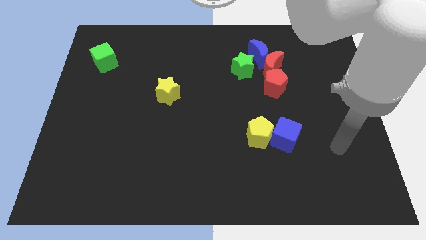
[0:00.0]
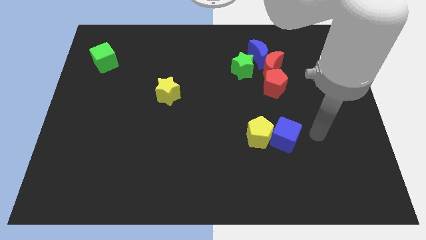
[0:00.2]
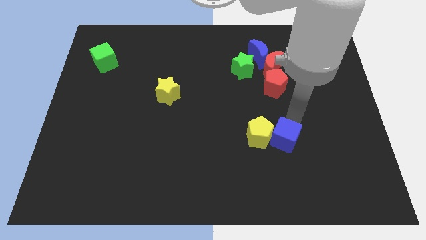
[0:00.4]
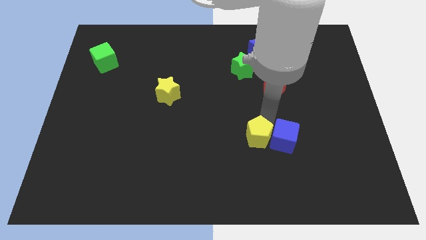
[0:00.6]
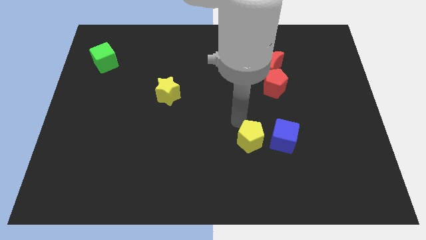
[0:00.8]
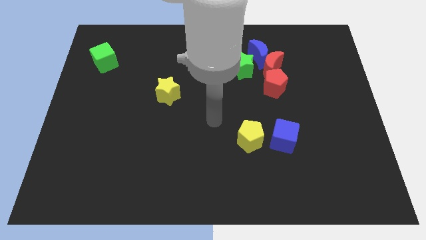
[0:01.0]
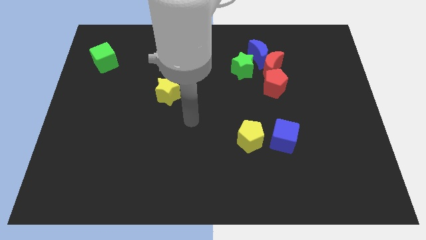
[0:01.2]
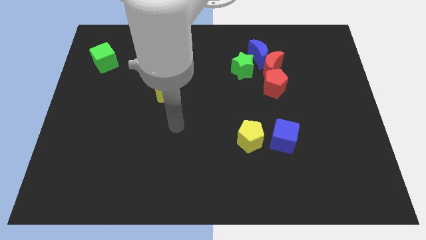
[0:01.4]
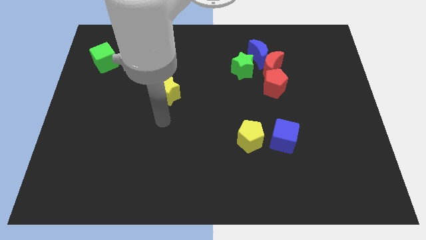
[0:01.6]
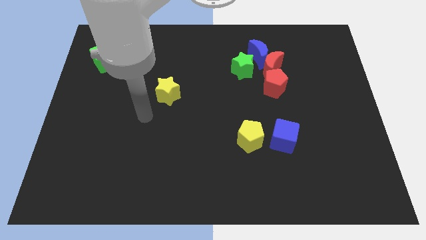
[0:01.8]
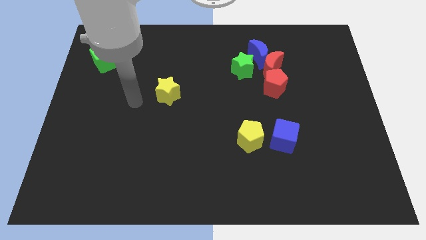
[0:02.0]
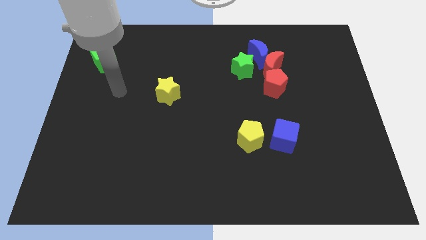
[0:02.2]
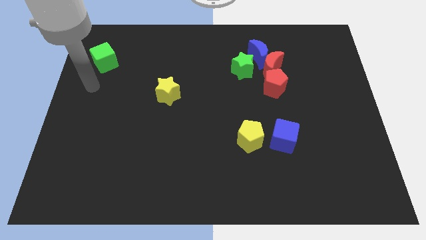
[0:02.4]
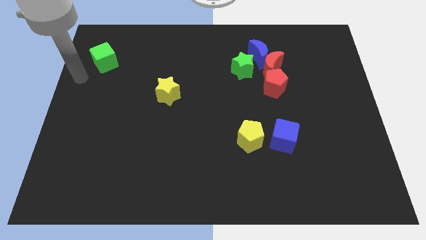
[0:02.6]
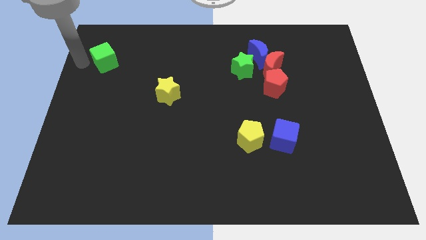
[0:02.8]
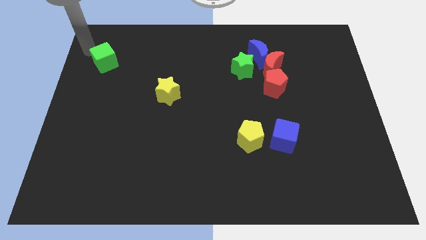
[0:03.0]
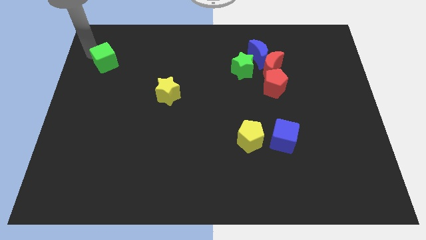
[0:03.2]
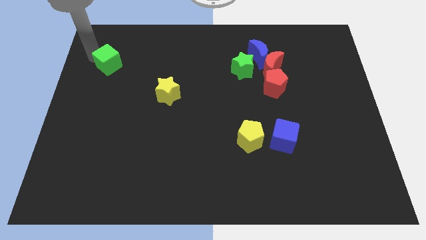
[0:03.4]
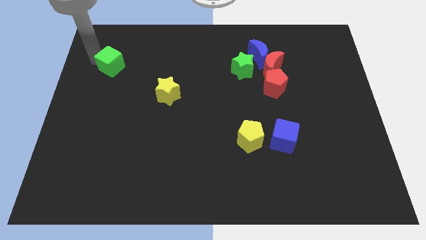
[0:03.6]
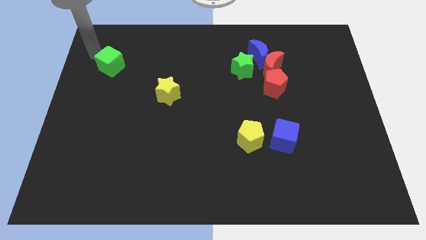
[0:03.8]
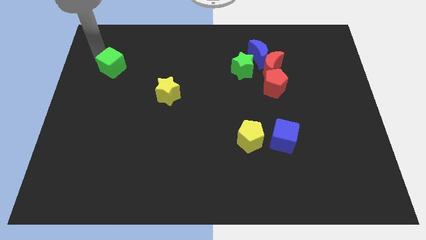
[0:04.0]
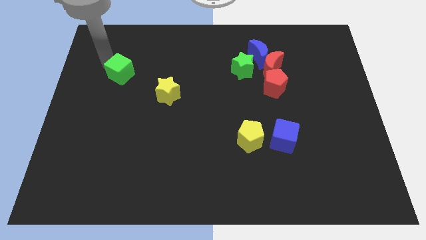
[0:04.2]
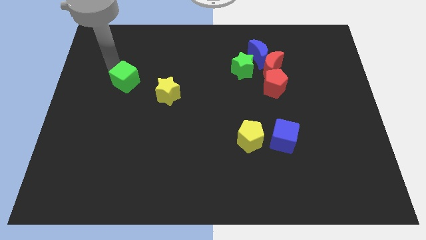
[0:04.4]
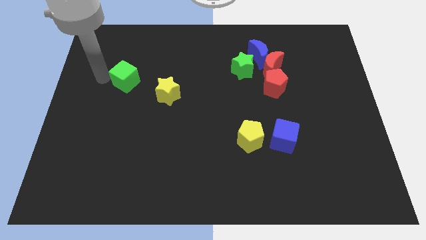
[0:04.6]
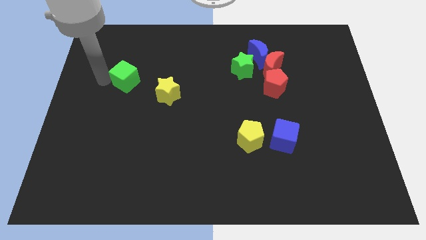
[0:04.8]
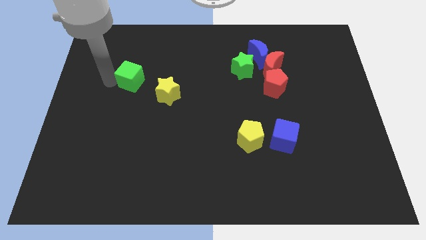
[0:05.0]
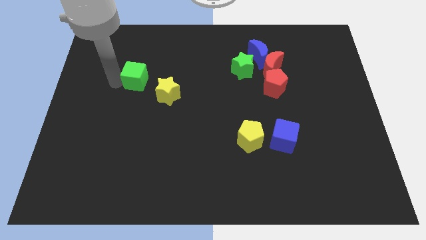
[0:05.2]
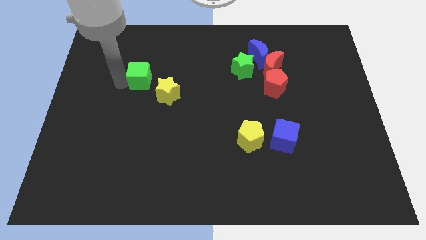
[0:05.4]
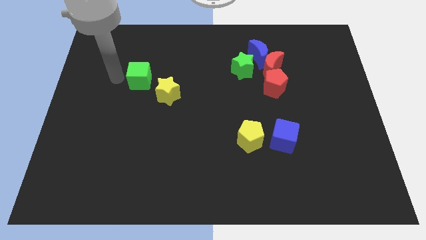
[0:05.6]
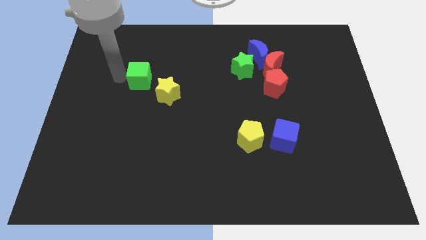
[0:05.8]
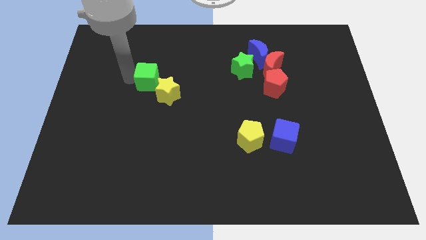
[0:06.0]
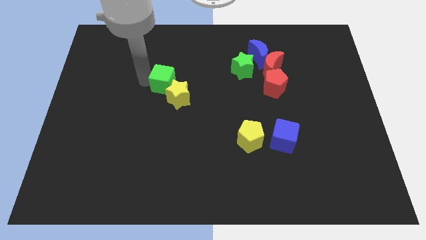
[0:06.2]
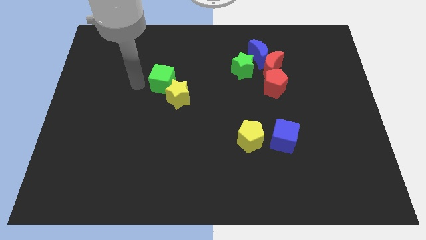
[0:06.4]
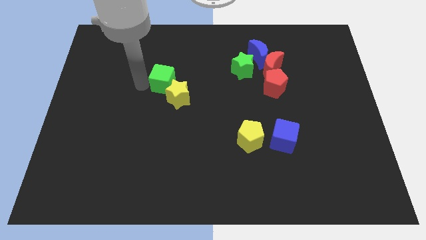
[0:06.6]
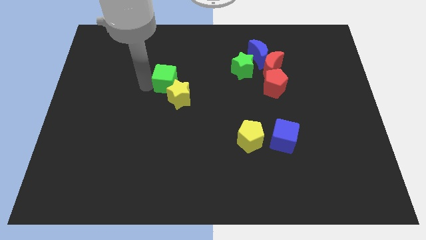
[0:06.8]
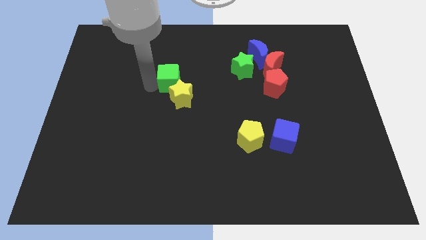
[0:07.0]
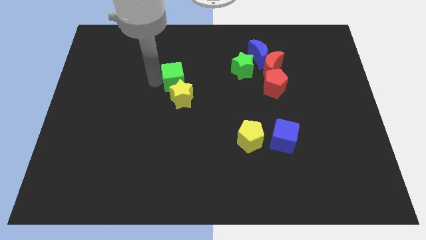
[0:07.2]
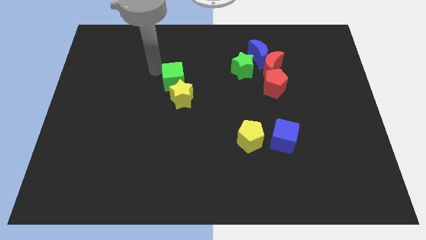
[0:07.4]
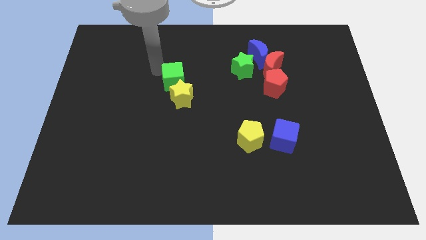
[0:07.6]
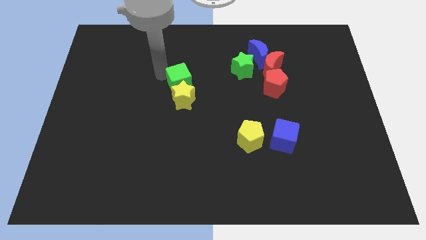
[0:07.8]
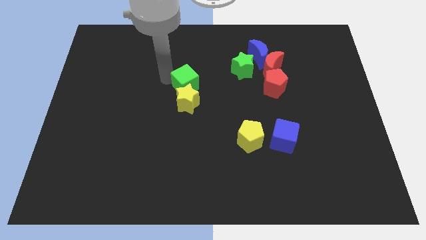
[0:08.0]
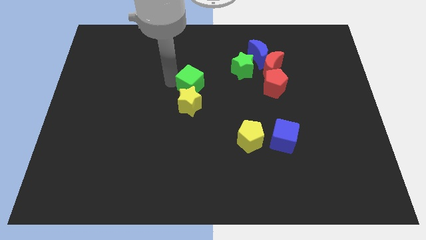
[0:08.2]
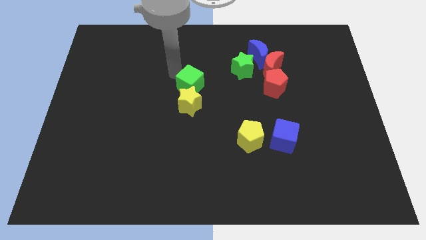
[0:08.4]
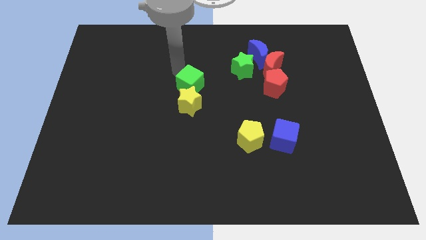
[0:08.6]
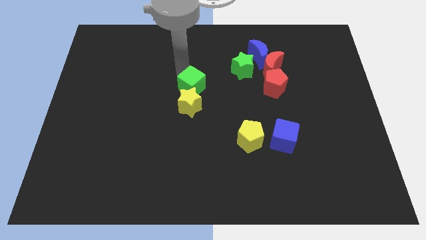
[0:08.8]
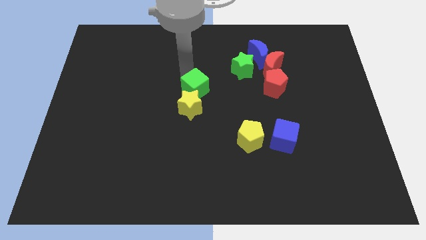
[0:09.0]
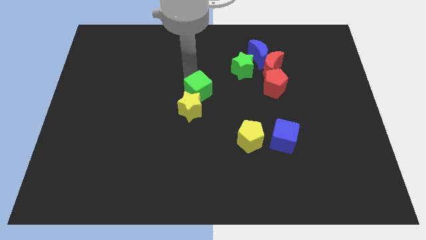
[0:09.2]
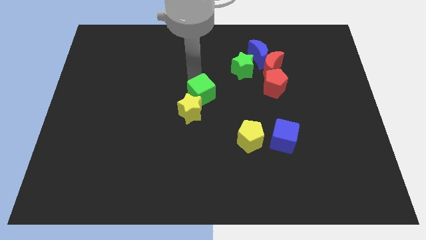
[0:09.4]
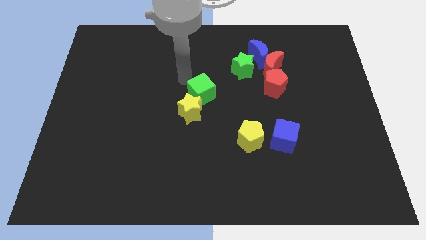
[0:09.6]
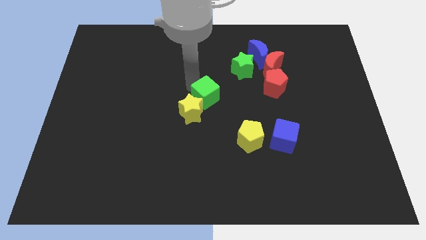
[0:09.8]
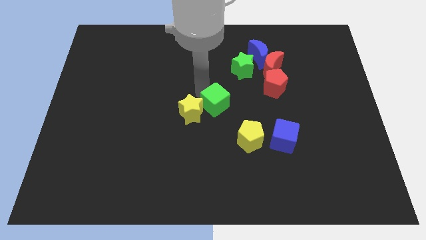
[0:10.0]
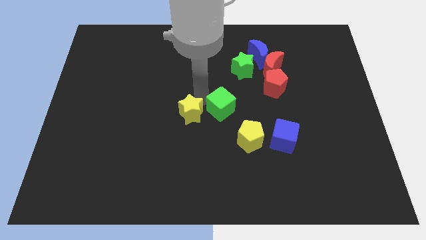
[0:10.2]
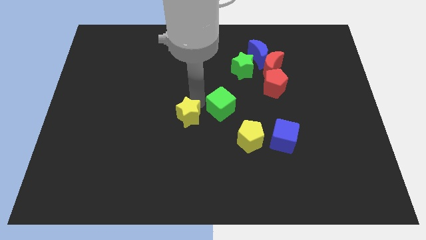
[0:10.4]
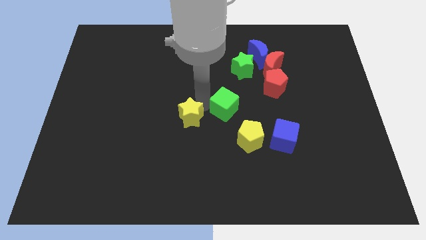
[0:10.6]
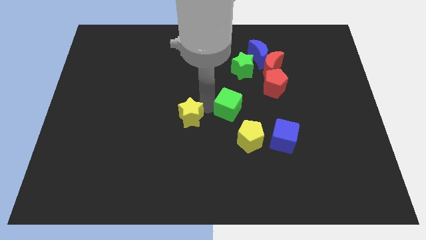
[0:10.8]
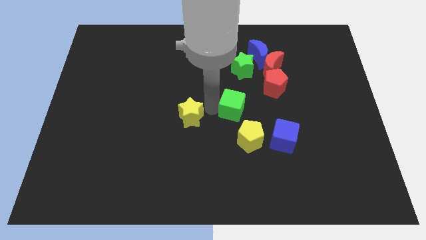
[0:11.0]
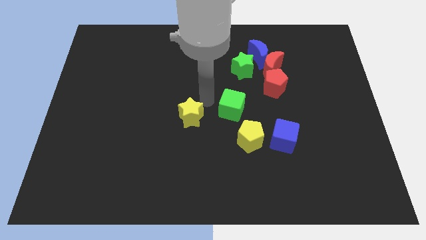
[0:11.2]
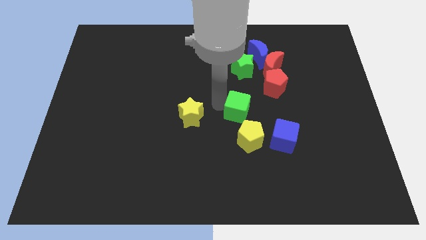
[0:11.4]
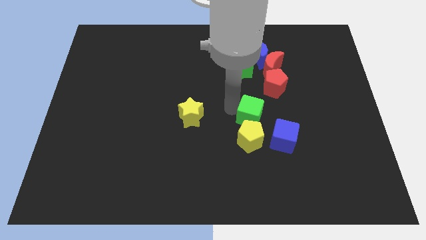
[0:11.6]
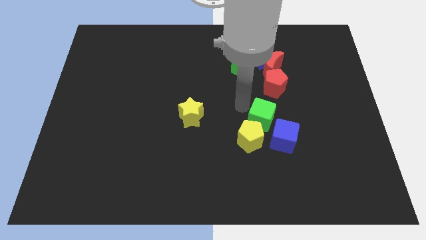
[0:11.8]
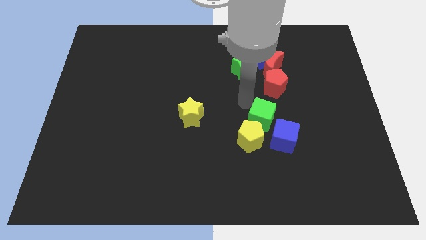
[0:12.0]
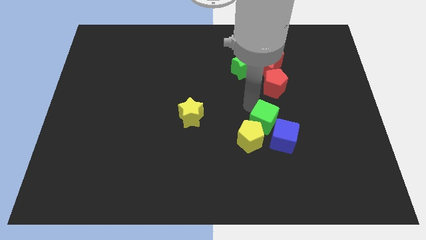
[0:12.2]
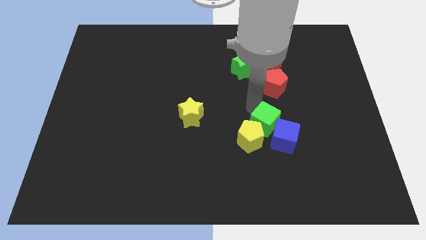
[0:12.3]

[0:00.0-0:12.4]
slide the green cube to the blue cube

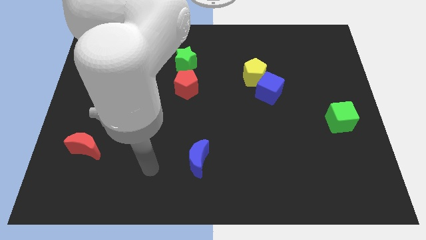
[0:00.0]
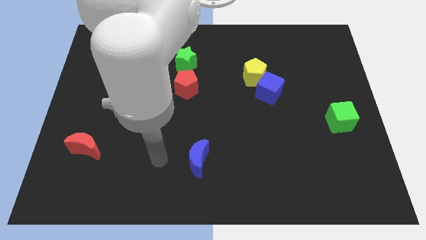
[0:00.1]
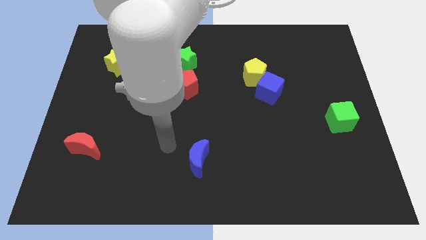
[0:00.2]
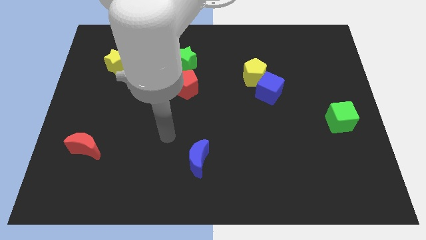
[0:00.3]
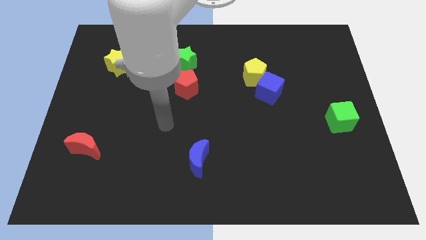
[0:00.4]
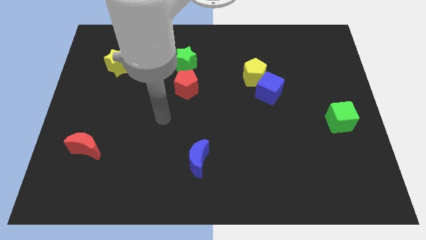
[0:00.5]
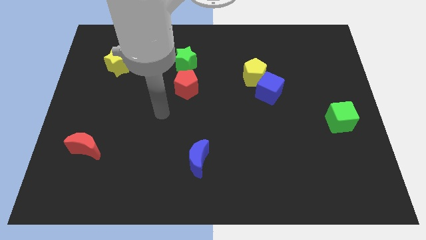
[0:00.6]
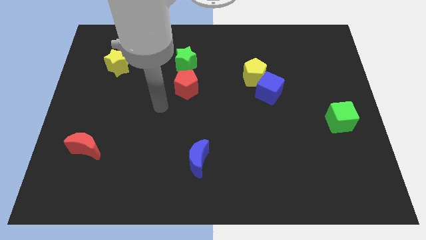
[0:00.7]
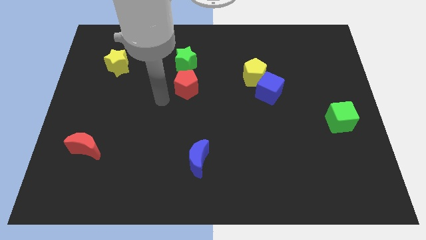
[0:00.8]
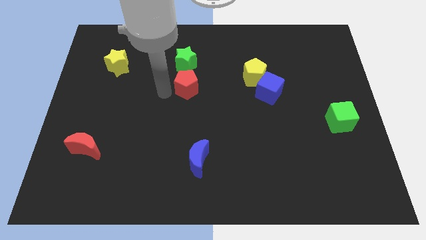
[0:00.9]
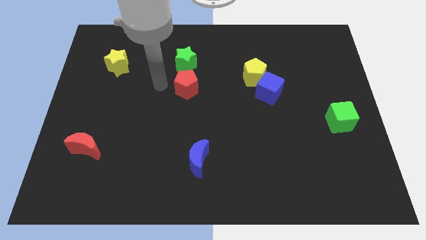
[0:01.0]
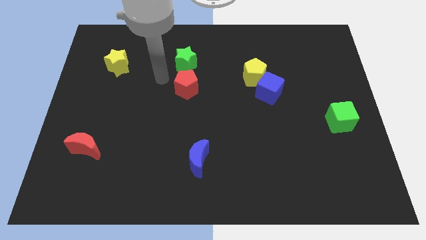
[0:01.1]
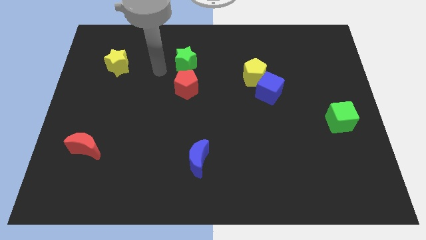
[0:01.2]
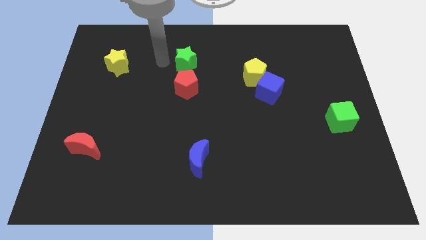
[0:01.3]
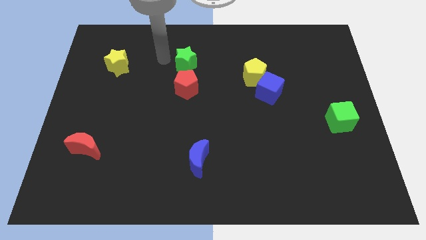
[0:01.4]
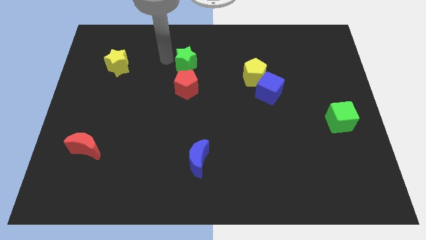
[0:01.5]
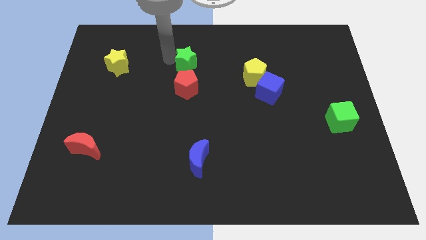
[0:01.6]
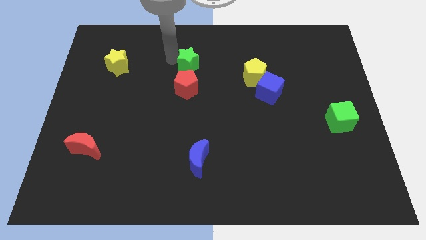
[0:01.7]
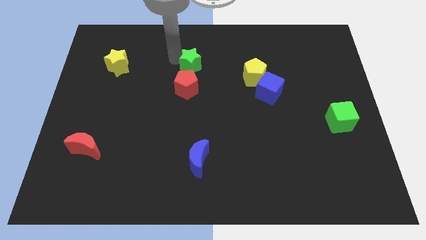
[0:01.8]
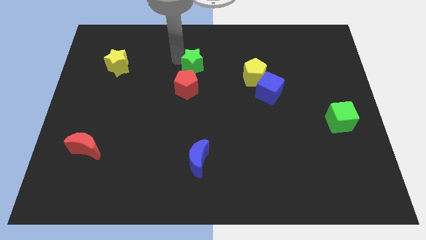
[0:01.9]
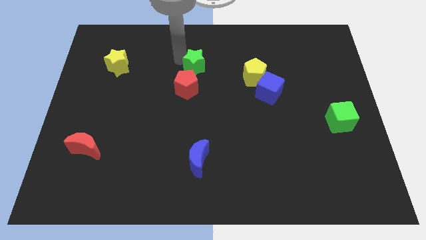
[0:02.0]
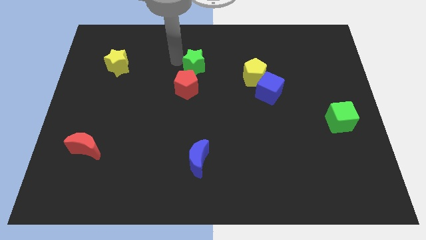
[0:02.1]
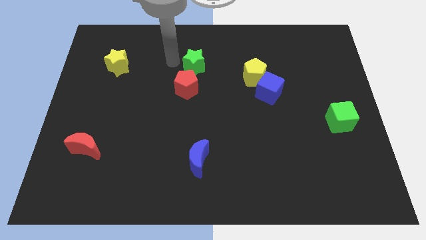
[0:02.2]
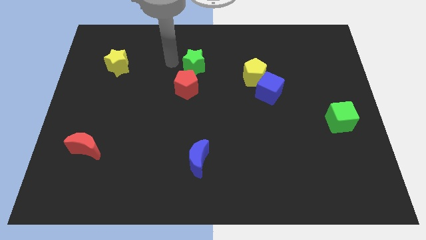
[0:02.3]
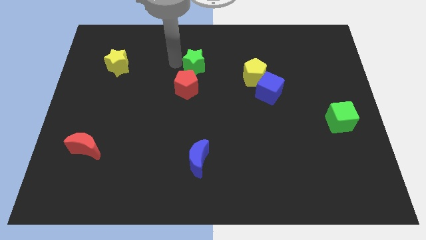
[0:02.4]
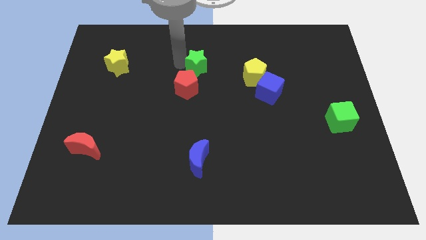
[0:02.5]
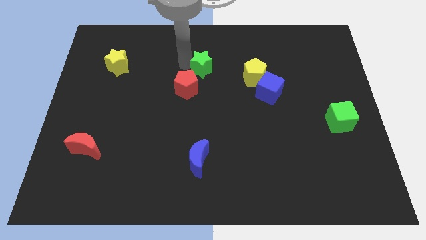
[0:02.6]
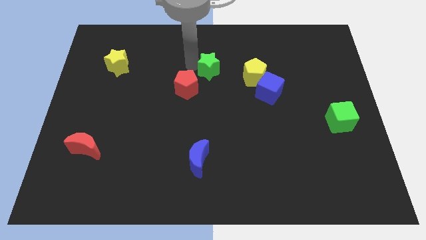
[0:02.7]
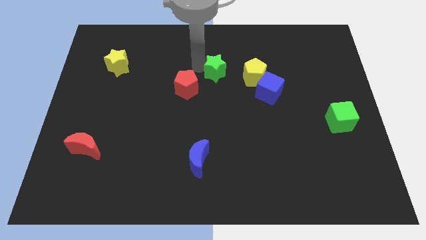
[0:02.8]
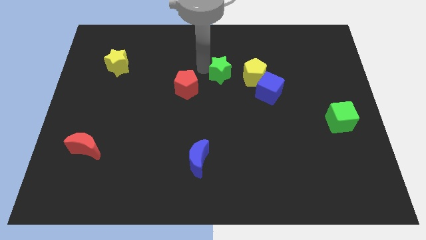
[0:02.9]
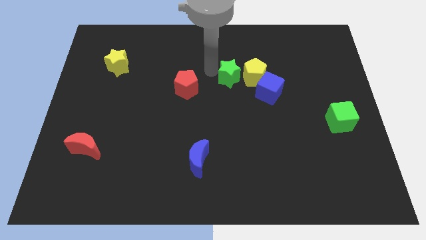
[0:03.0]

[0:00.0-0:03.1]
push the green star next to the yellow pentagon
